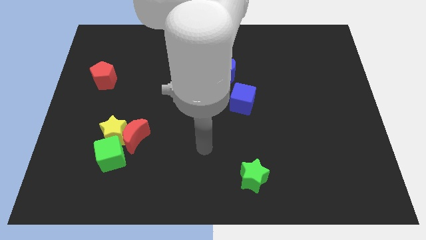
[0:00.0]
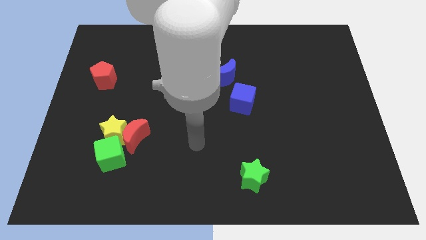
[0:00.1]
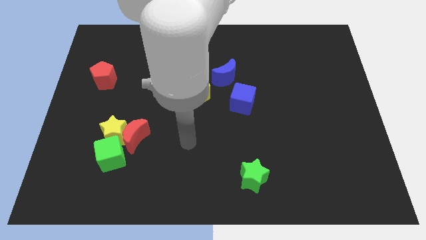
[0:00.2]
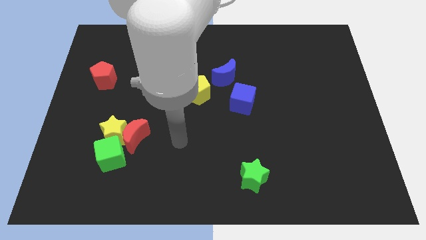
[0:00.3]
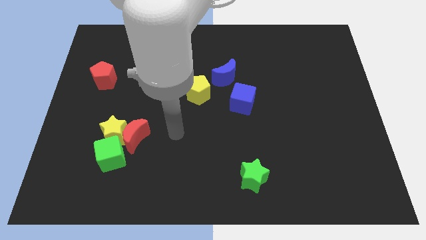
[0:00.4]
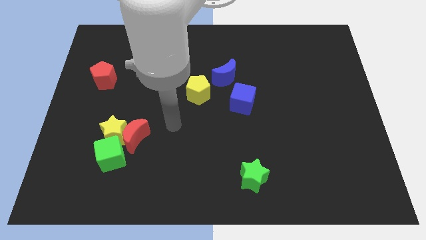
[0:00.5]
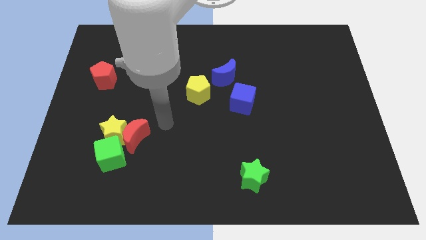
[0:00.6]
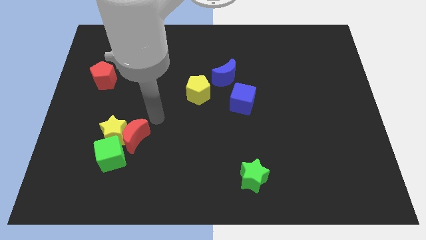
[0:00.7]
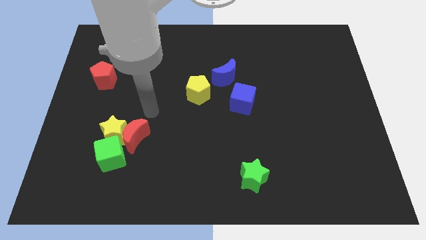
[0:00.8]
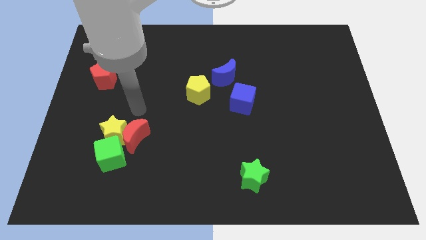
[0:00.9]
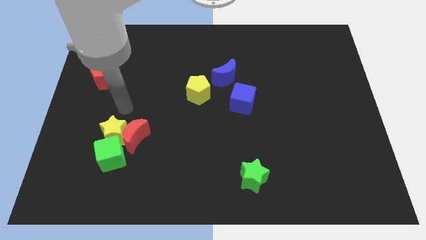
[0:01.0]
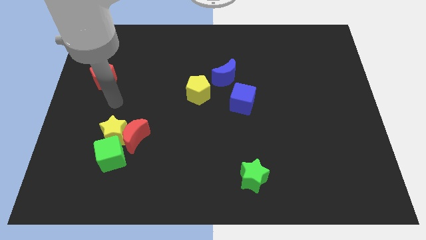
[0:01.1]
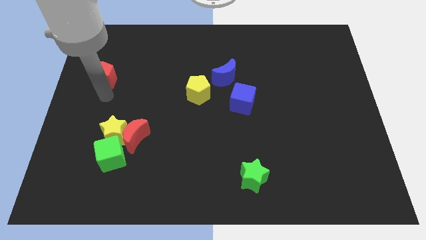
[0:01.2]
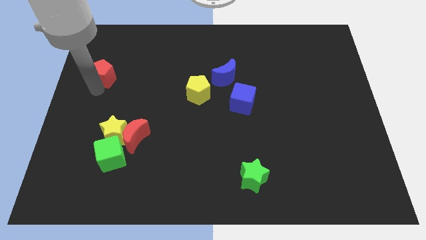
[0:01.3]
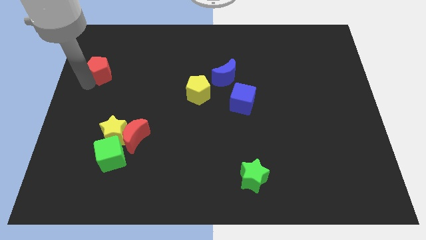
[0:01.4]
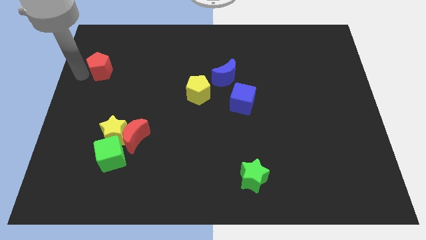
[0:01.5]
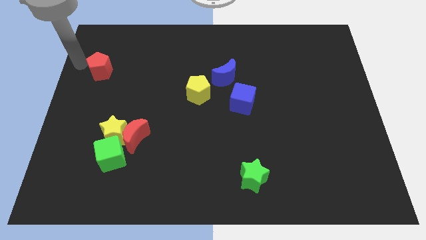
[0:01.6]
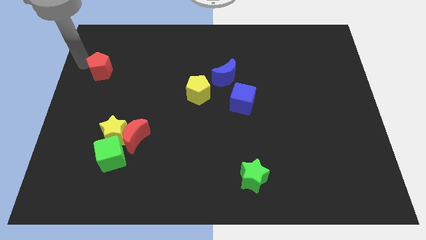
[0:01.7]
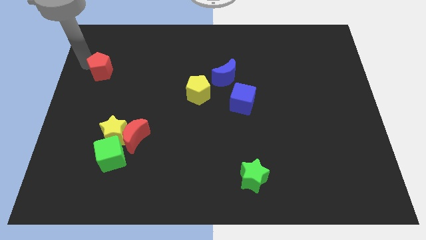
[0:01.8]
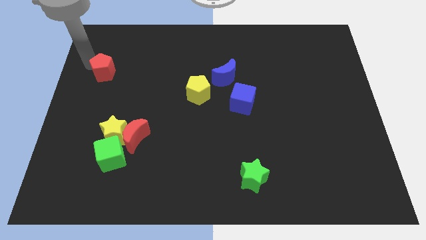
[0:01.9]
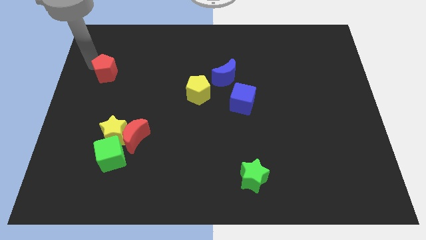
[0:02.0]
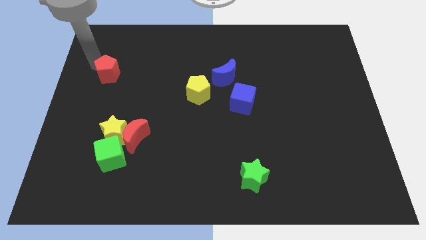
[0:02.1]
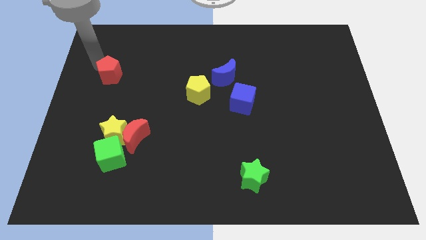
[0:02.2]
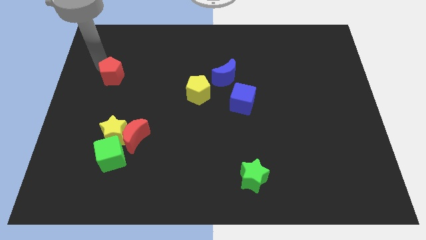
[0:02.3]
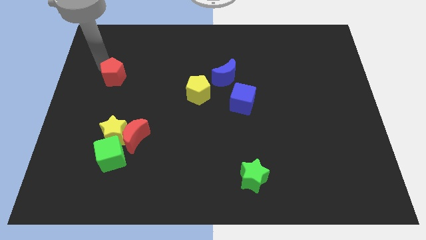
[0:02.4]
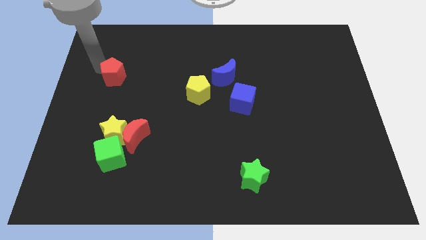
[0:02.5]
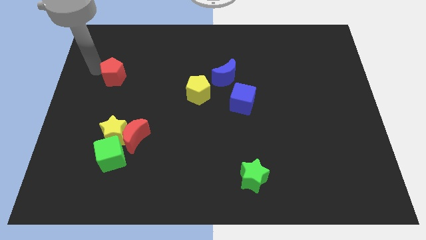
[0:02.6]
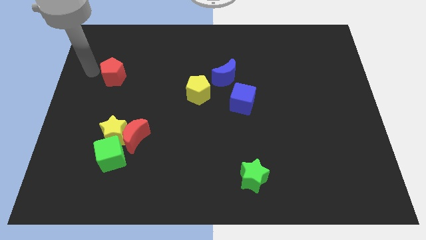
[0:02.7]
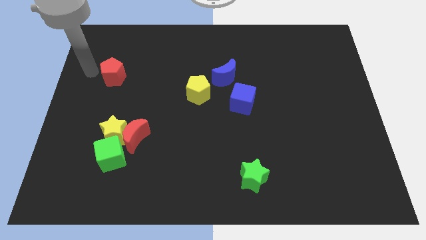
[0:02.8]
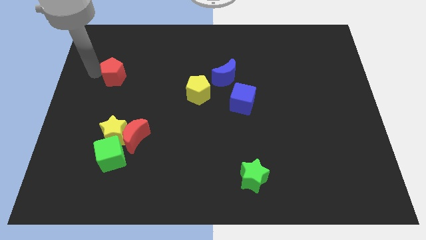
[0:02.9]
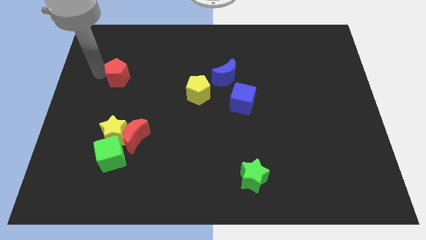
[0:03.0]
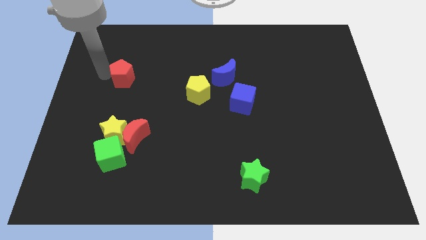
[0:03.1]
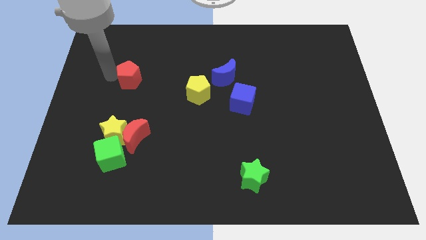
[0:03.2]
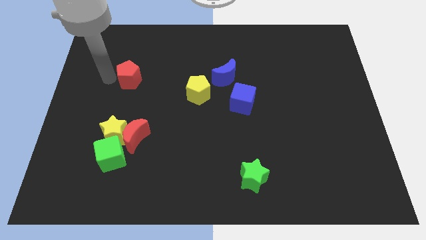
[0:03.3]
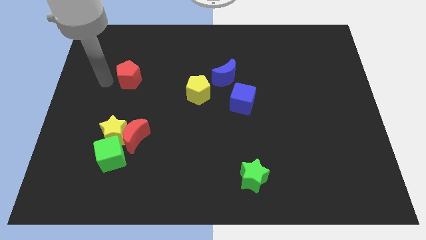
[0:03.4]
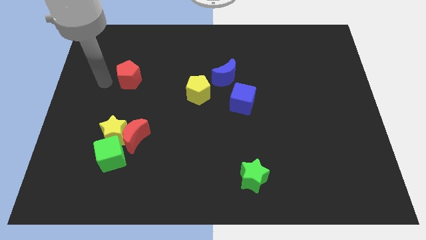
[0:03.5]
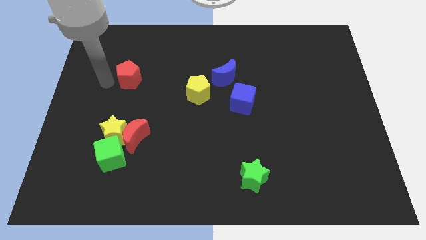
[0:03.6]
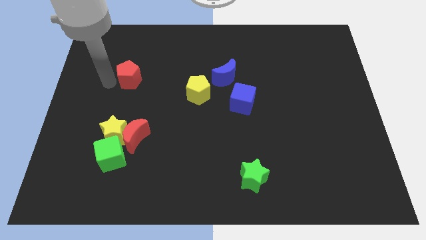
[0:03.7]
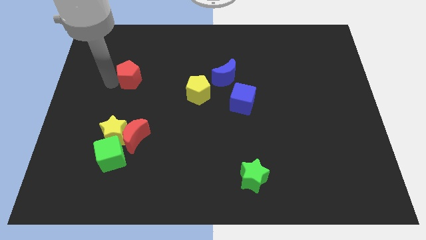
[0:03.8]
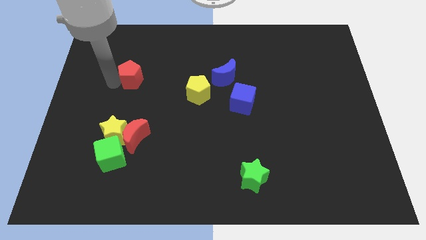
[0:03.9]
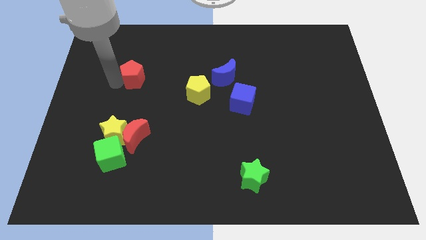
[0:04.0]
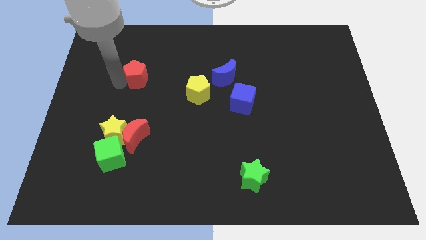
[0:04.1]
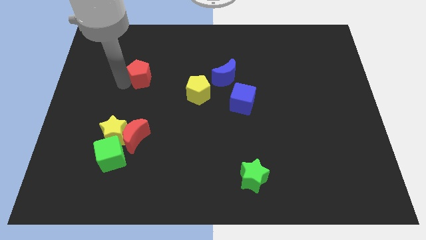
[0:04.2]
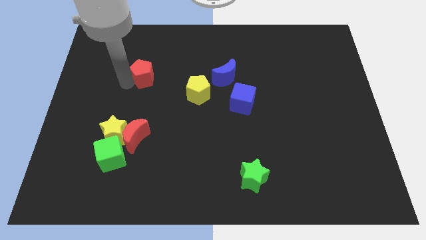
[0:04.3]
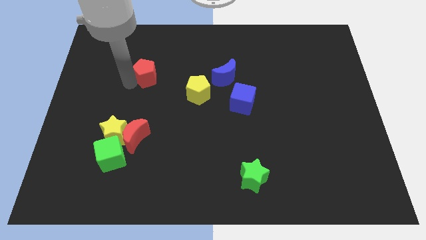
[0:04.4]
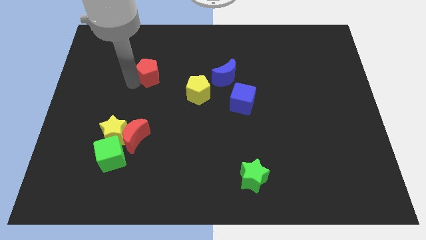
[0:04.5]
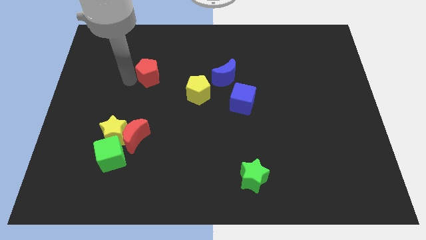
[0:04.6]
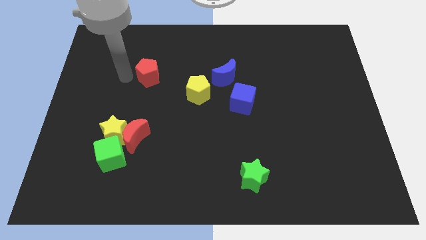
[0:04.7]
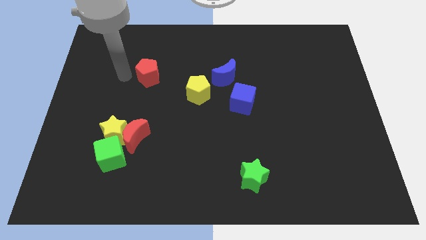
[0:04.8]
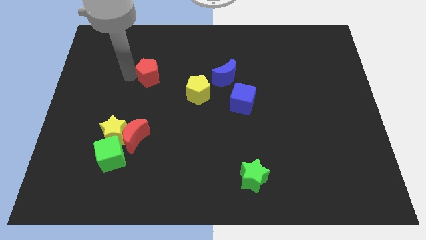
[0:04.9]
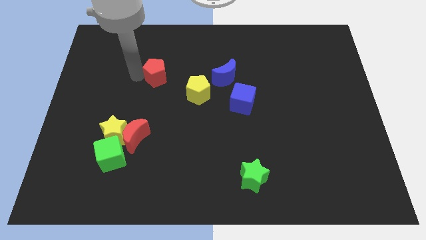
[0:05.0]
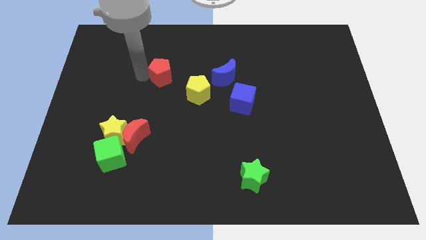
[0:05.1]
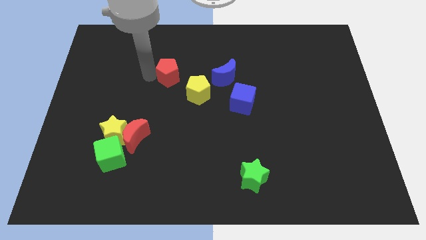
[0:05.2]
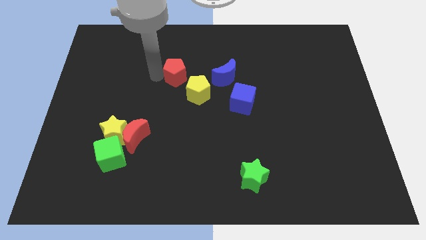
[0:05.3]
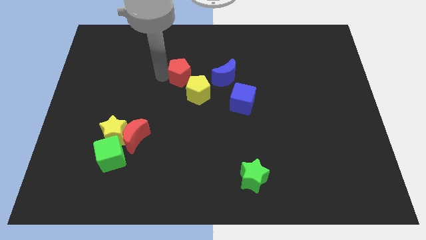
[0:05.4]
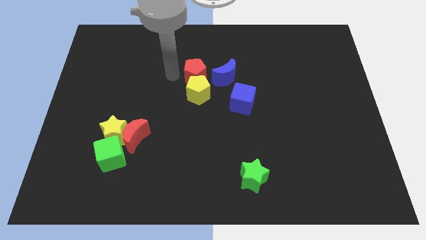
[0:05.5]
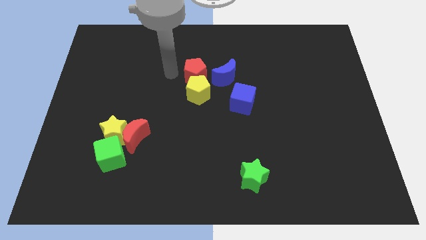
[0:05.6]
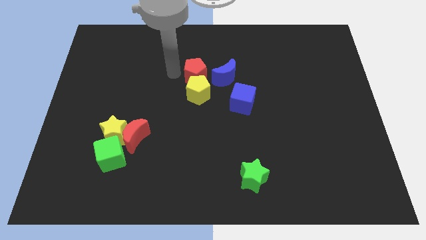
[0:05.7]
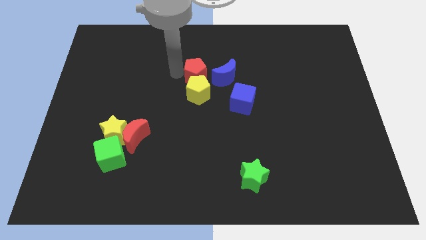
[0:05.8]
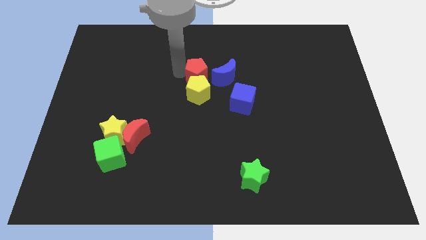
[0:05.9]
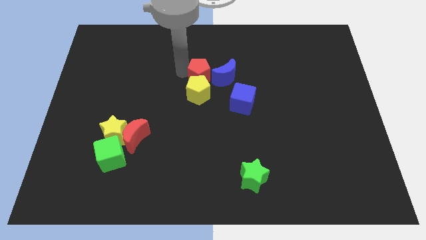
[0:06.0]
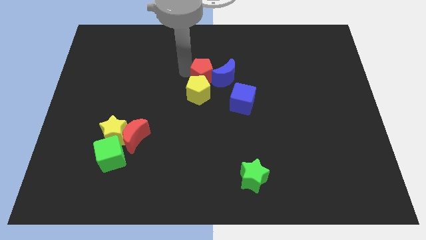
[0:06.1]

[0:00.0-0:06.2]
move the red pentagon next to the blue moon

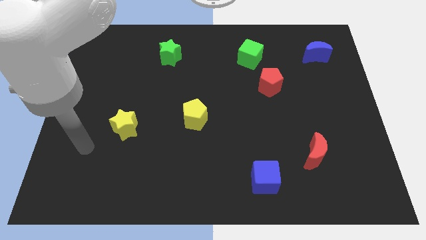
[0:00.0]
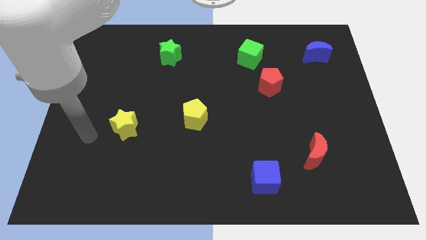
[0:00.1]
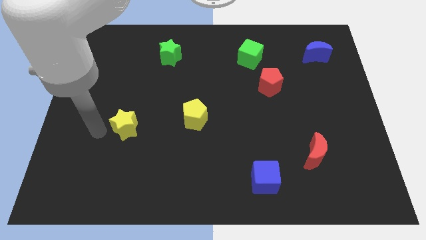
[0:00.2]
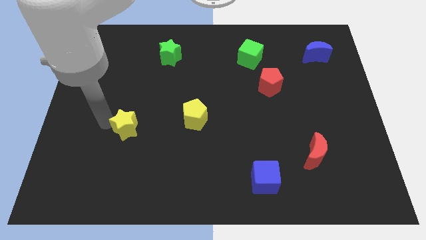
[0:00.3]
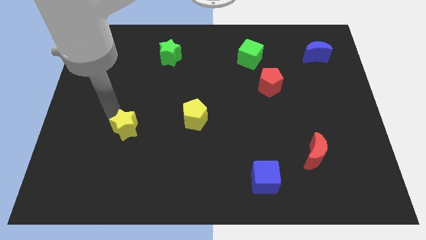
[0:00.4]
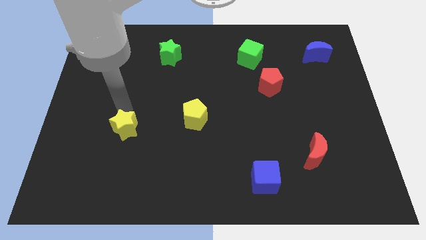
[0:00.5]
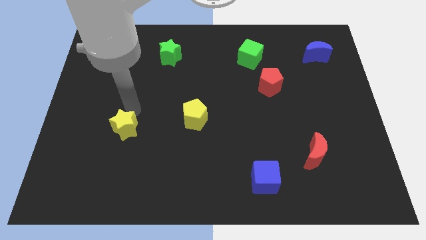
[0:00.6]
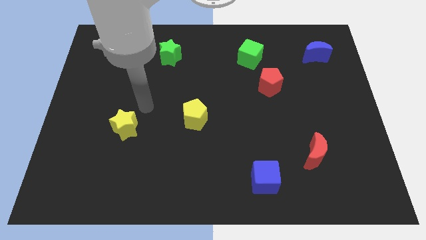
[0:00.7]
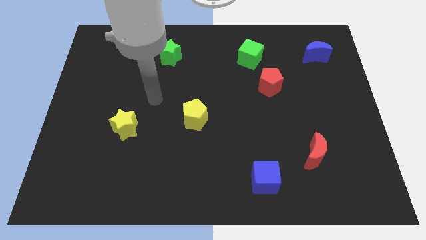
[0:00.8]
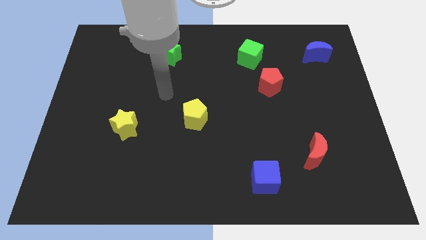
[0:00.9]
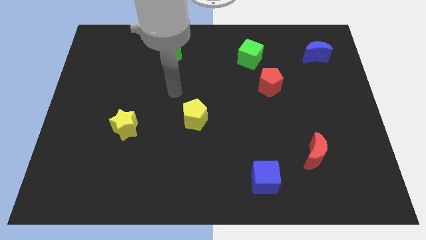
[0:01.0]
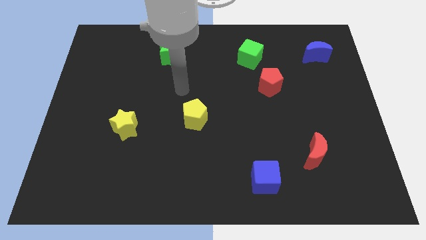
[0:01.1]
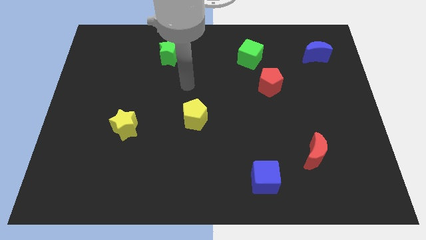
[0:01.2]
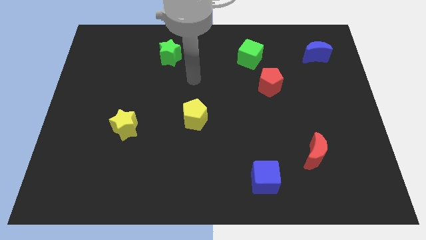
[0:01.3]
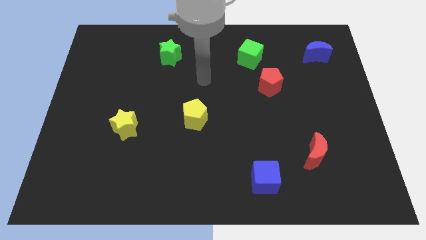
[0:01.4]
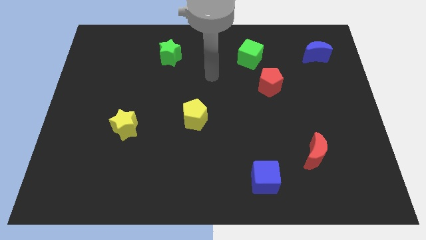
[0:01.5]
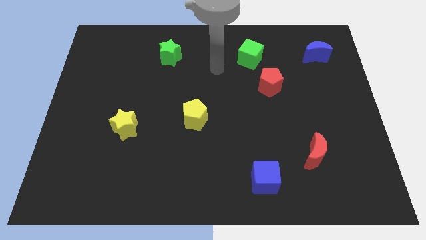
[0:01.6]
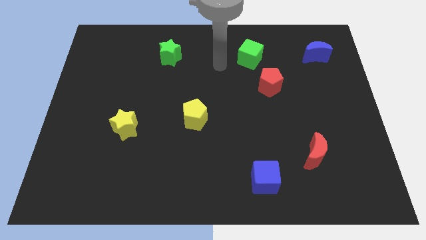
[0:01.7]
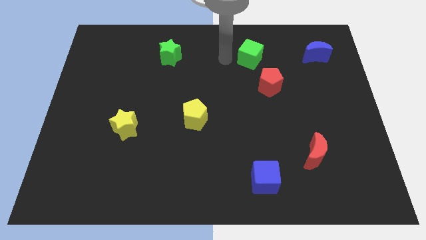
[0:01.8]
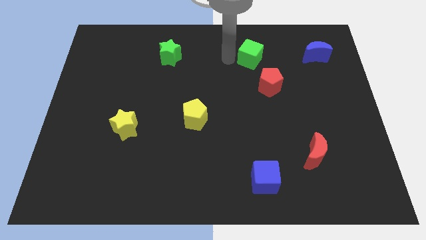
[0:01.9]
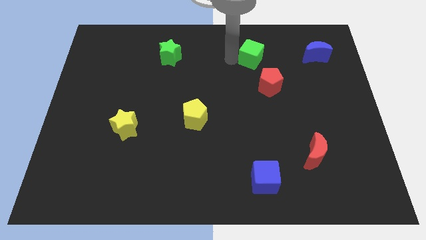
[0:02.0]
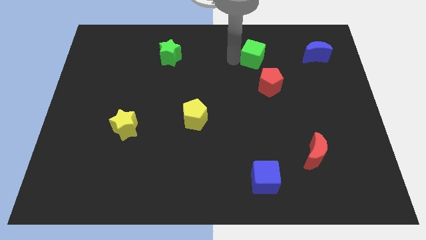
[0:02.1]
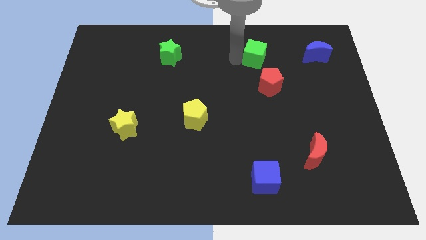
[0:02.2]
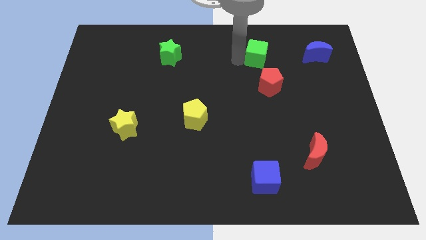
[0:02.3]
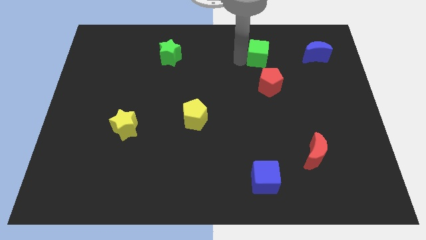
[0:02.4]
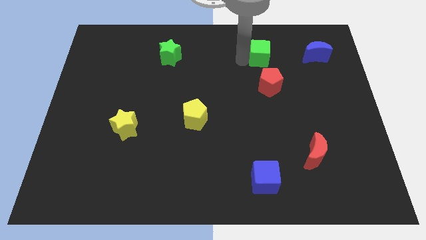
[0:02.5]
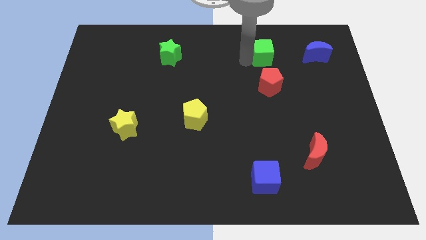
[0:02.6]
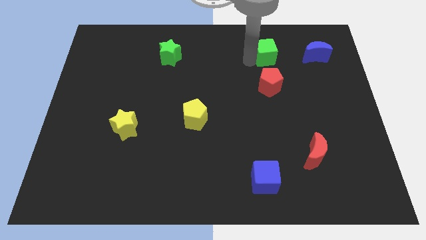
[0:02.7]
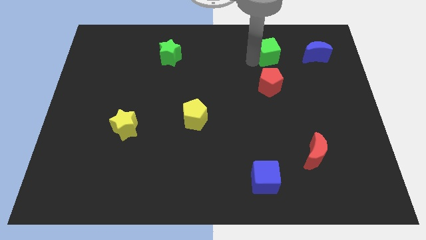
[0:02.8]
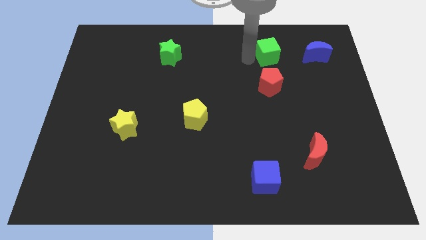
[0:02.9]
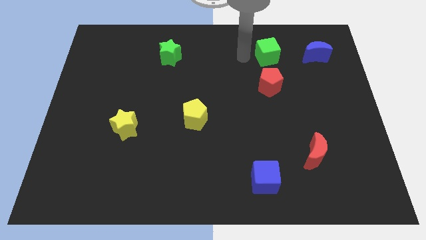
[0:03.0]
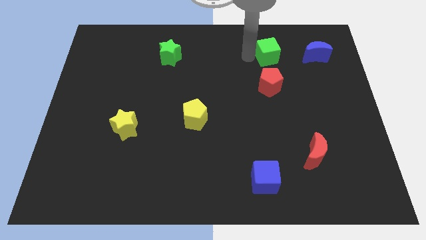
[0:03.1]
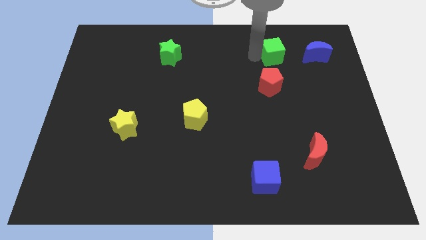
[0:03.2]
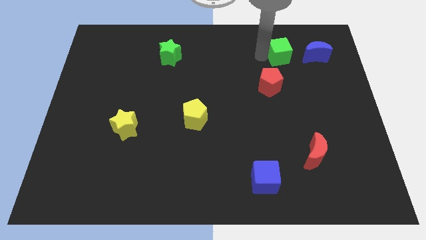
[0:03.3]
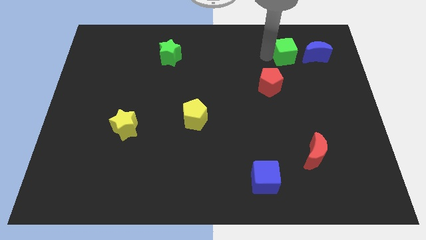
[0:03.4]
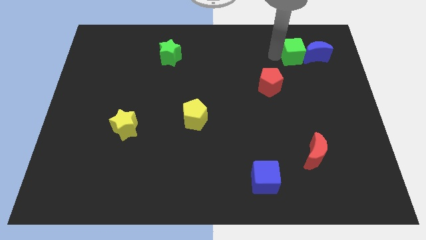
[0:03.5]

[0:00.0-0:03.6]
slide the green cube towards the blue moon
